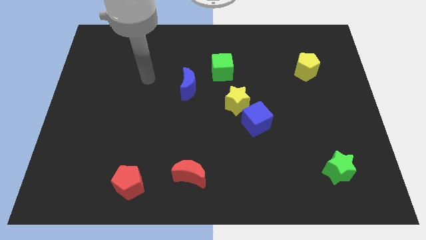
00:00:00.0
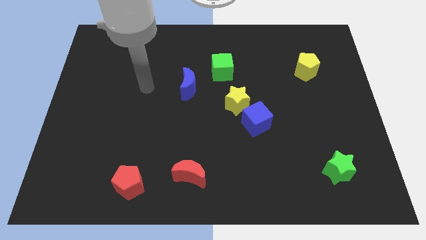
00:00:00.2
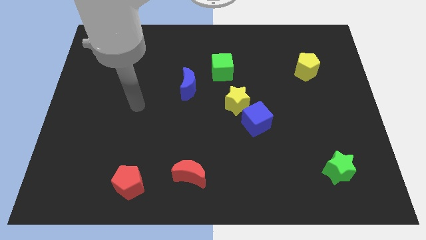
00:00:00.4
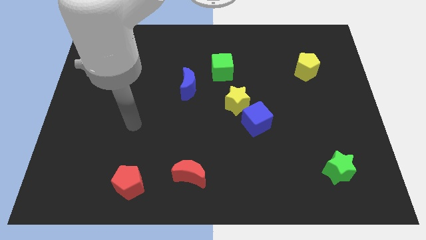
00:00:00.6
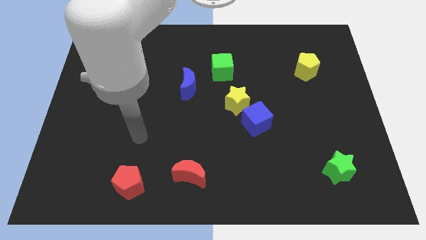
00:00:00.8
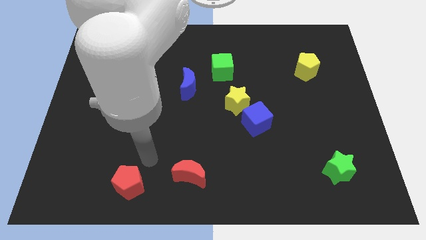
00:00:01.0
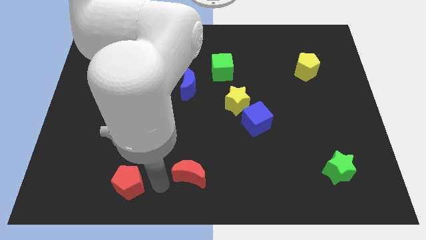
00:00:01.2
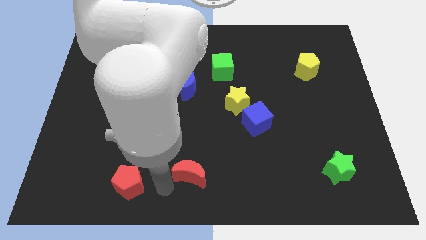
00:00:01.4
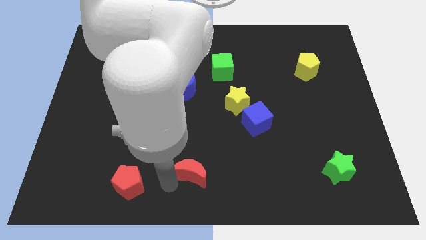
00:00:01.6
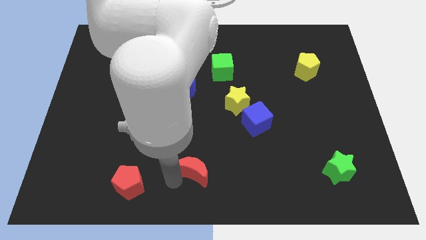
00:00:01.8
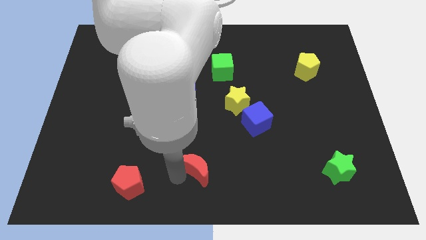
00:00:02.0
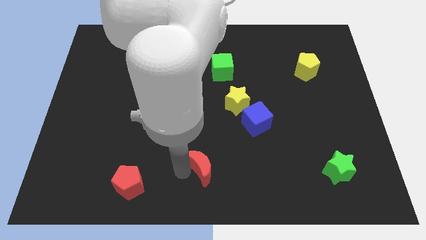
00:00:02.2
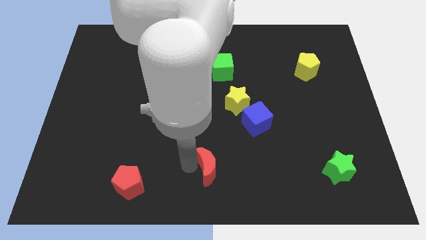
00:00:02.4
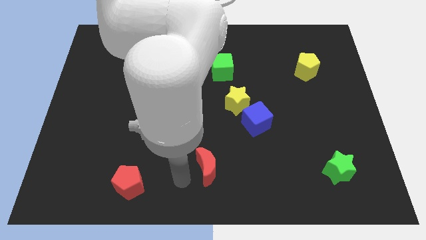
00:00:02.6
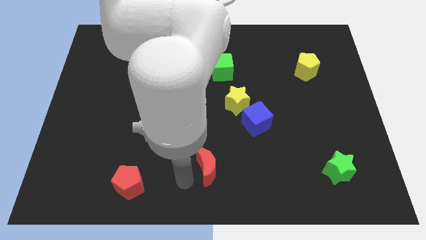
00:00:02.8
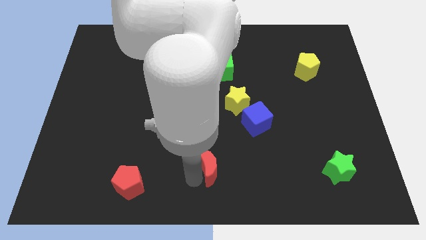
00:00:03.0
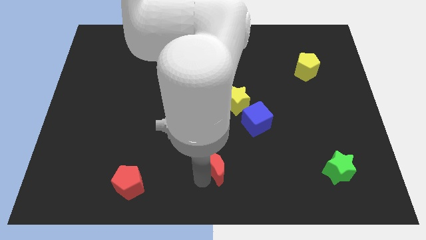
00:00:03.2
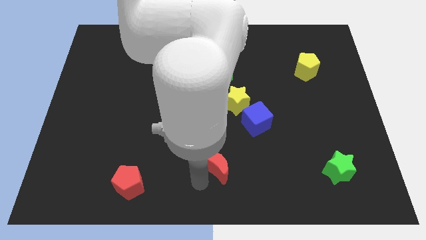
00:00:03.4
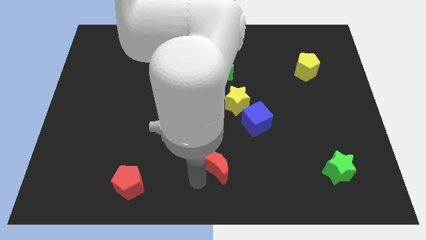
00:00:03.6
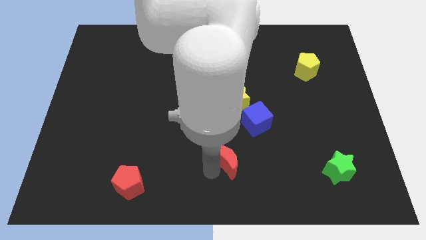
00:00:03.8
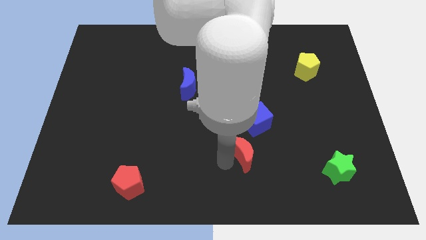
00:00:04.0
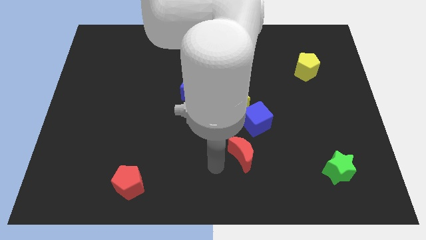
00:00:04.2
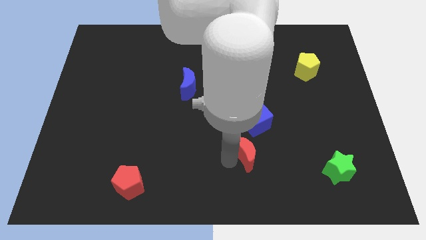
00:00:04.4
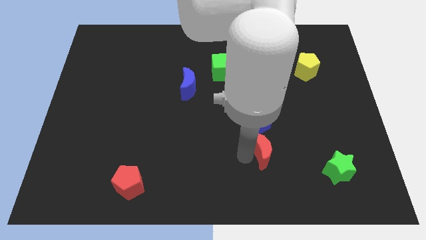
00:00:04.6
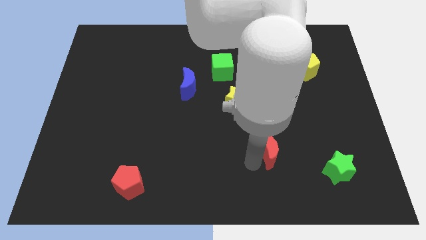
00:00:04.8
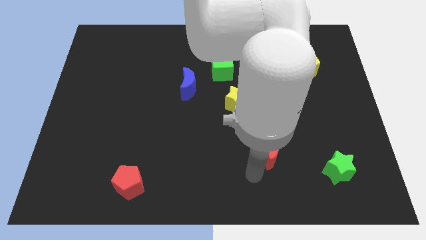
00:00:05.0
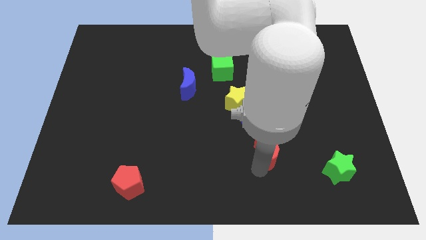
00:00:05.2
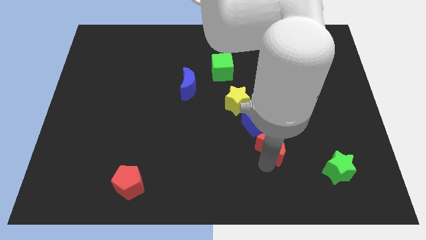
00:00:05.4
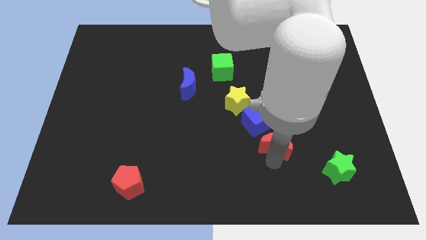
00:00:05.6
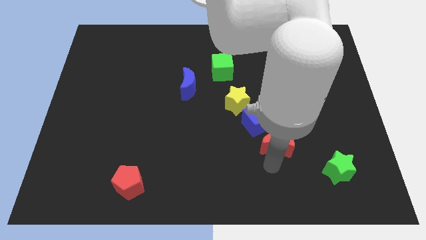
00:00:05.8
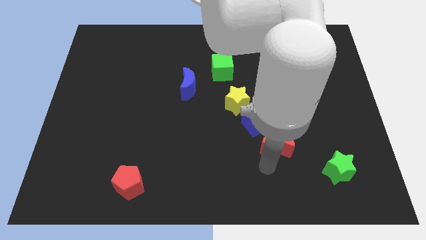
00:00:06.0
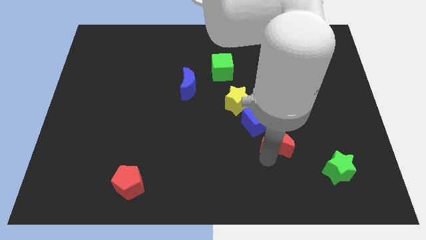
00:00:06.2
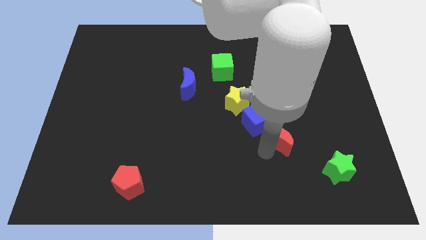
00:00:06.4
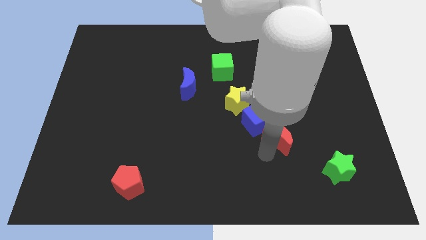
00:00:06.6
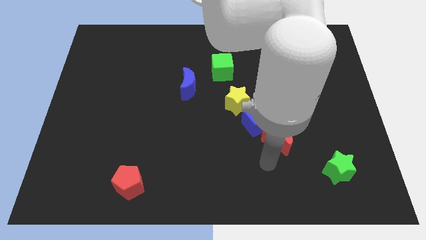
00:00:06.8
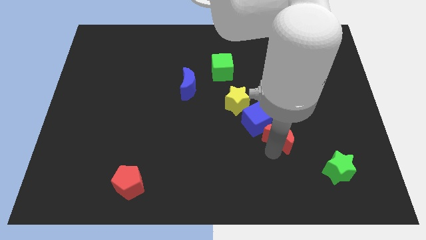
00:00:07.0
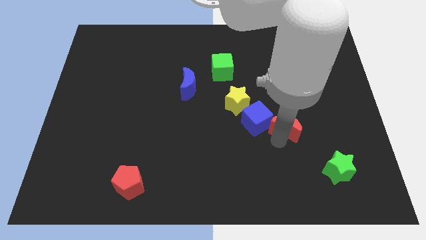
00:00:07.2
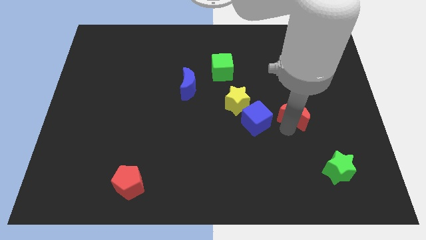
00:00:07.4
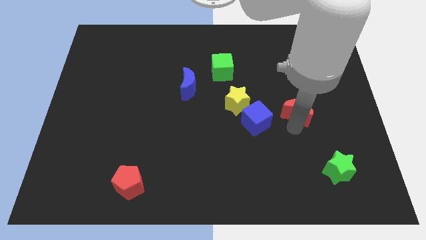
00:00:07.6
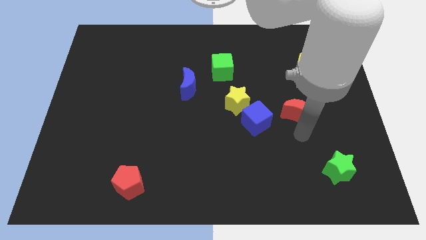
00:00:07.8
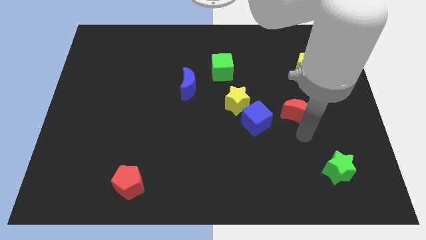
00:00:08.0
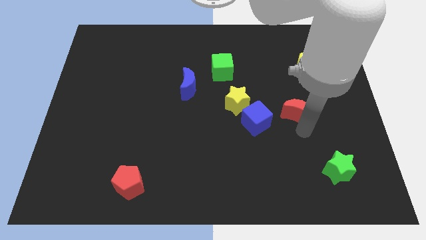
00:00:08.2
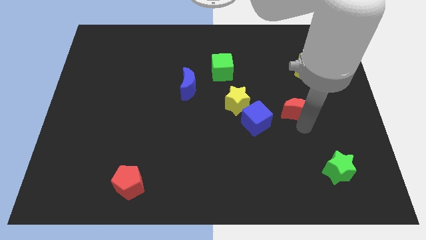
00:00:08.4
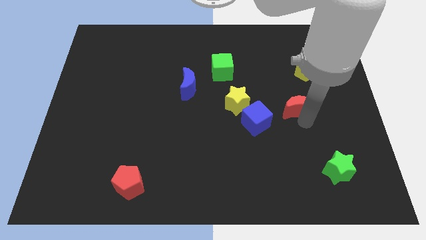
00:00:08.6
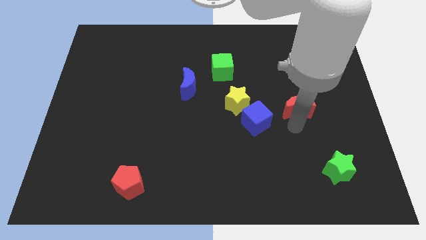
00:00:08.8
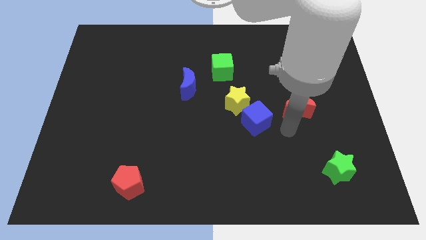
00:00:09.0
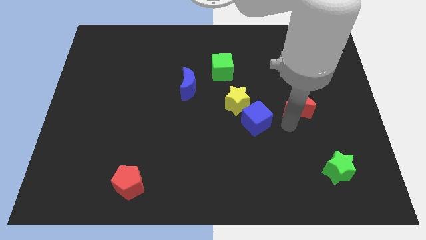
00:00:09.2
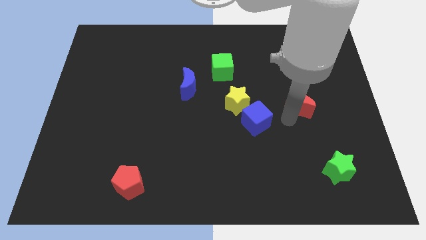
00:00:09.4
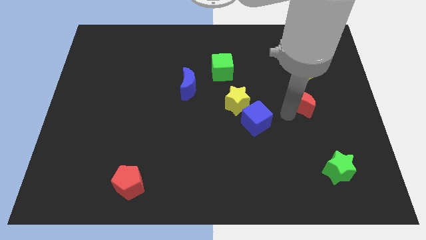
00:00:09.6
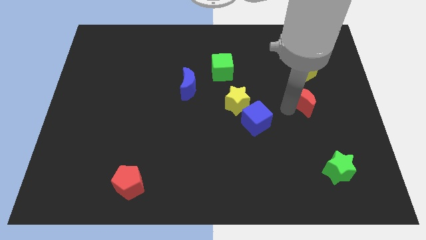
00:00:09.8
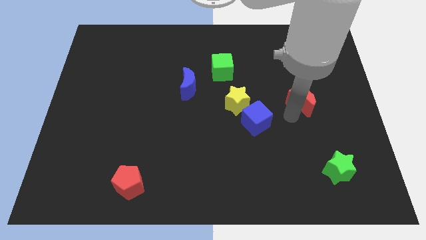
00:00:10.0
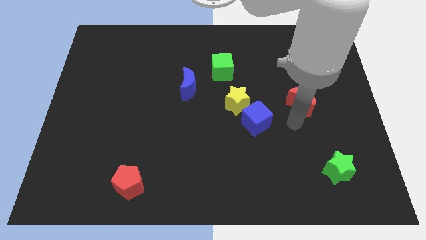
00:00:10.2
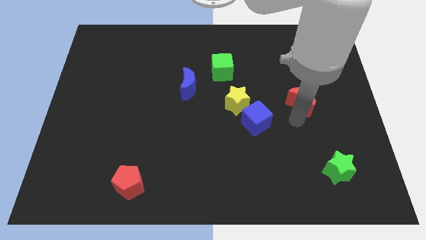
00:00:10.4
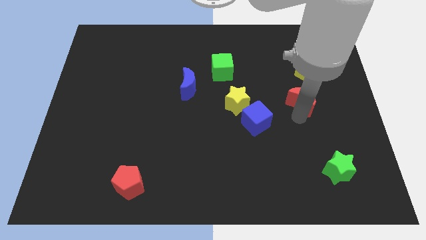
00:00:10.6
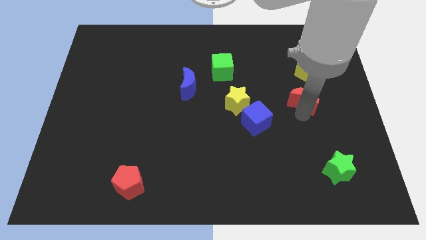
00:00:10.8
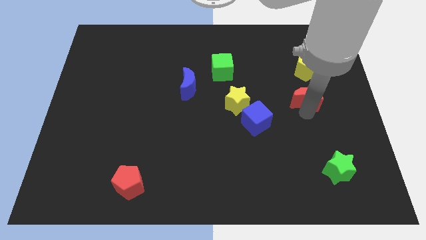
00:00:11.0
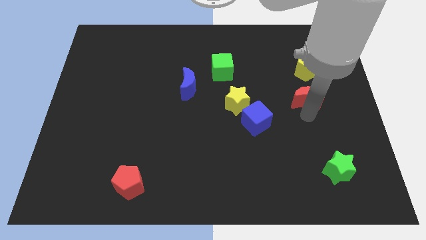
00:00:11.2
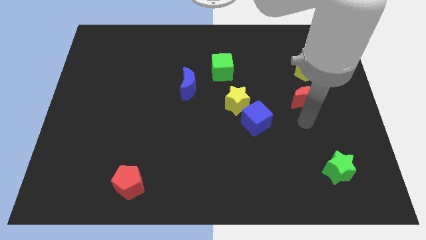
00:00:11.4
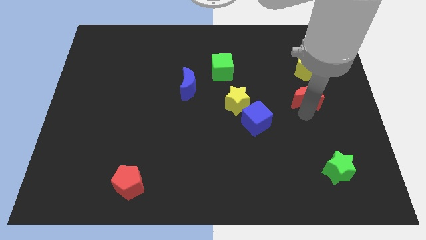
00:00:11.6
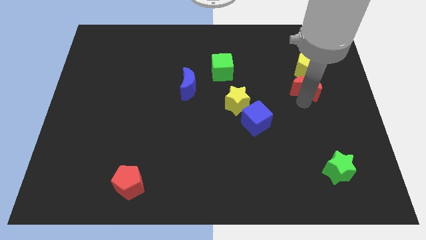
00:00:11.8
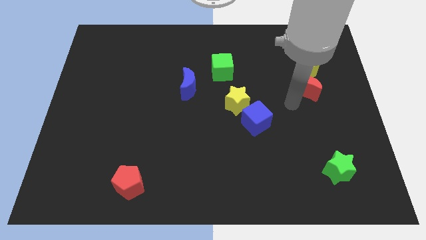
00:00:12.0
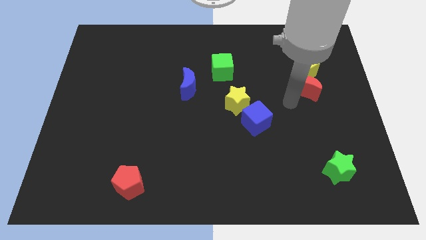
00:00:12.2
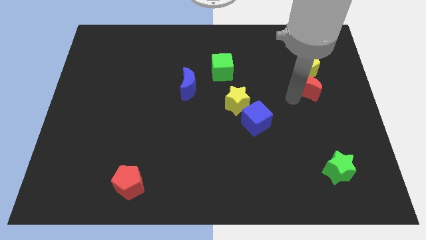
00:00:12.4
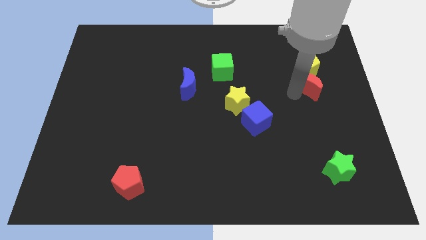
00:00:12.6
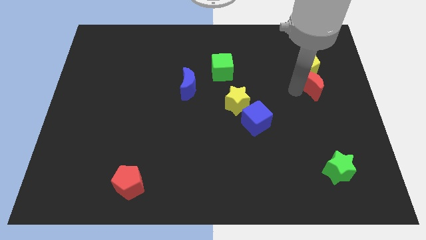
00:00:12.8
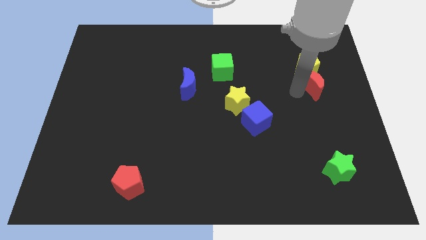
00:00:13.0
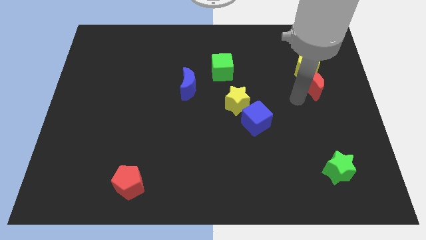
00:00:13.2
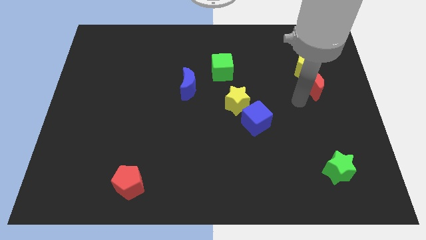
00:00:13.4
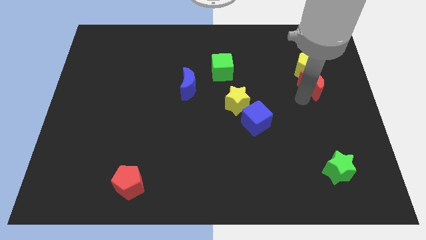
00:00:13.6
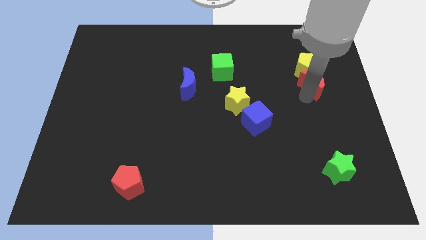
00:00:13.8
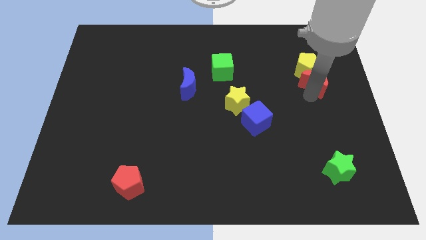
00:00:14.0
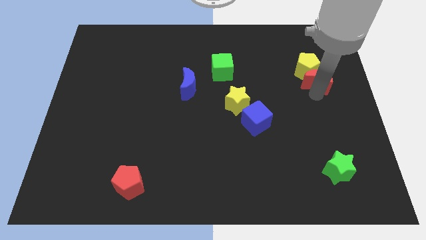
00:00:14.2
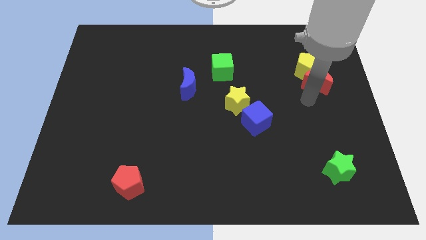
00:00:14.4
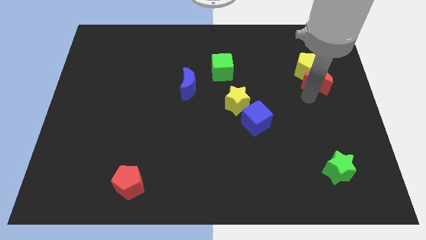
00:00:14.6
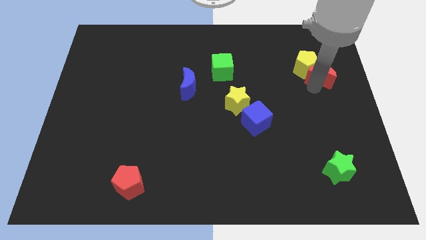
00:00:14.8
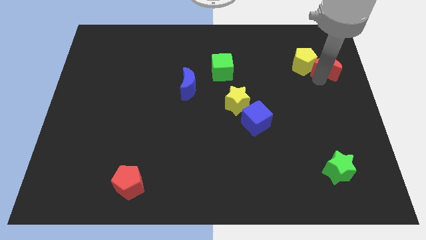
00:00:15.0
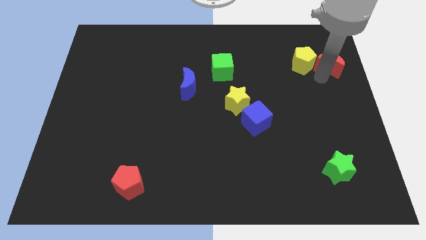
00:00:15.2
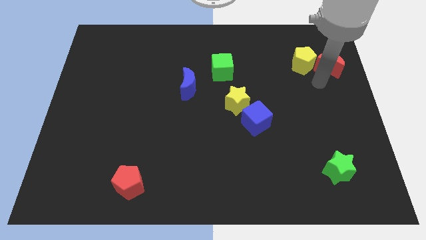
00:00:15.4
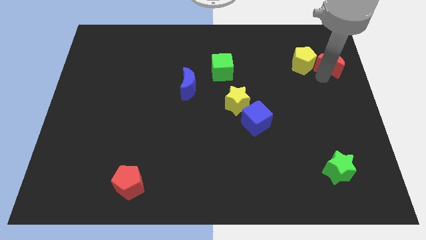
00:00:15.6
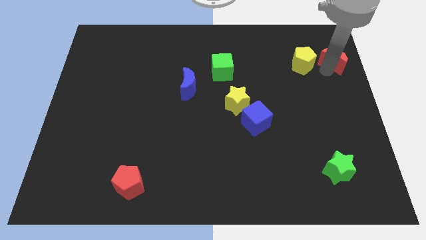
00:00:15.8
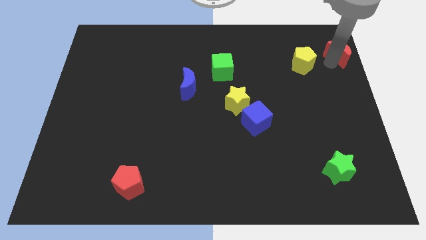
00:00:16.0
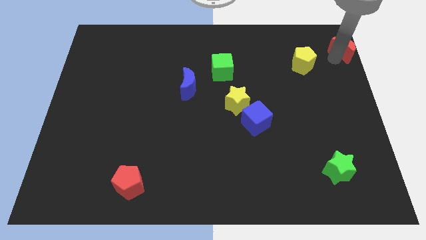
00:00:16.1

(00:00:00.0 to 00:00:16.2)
put the red moon to the top right
